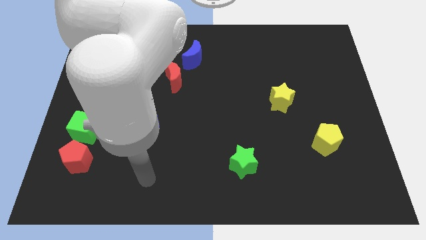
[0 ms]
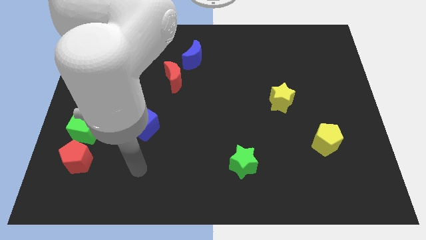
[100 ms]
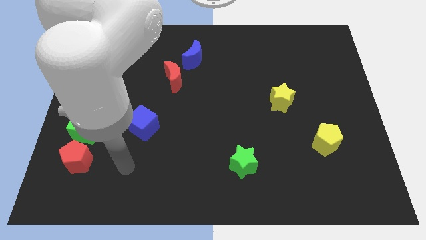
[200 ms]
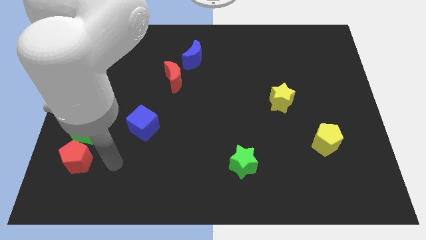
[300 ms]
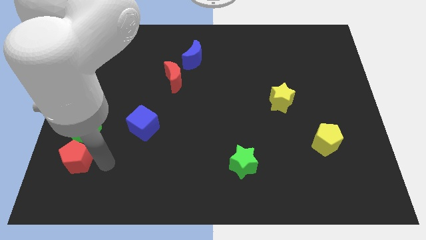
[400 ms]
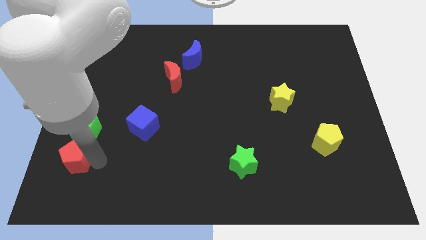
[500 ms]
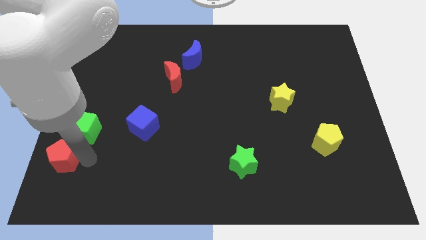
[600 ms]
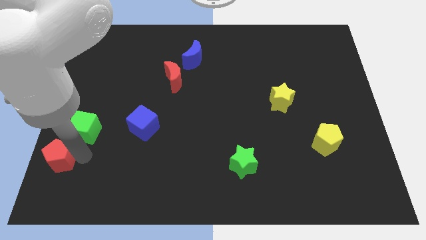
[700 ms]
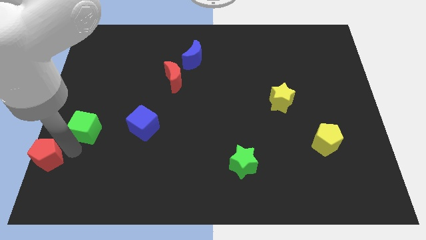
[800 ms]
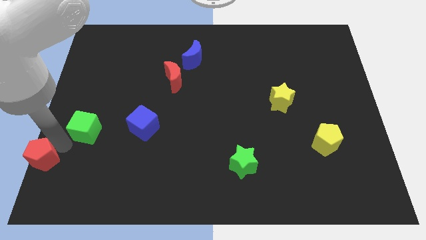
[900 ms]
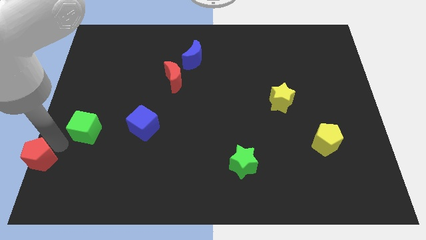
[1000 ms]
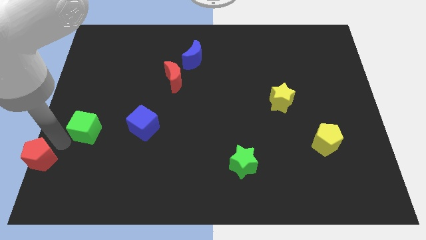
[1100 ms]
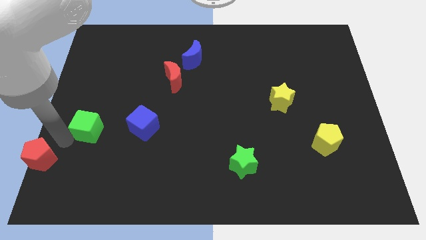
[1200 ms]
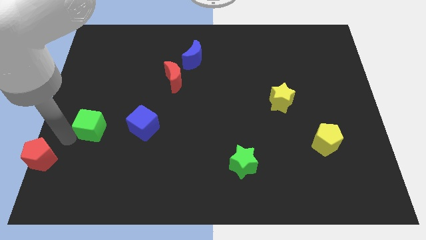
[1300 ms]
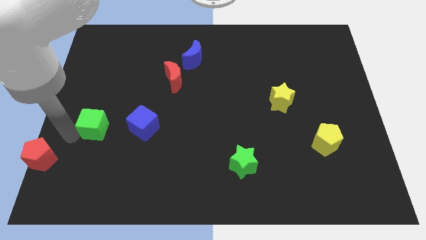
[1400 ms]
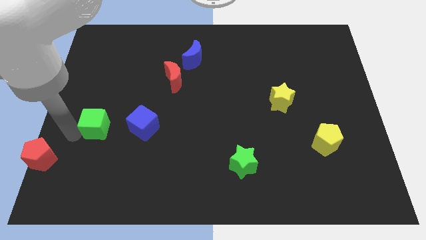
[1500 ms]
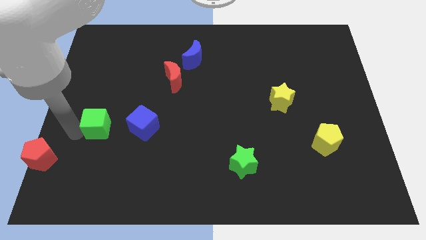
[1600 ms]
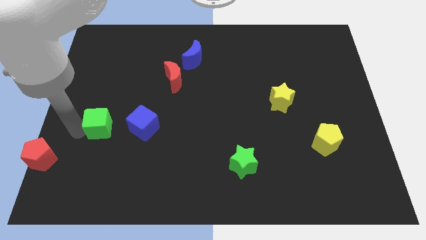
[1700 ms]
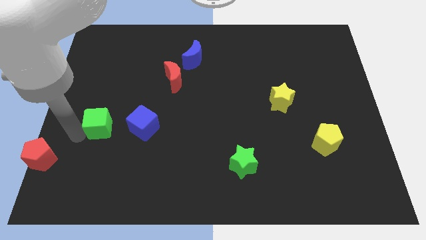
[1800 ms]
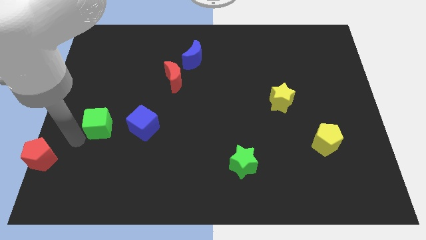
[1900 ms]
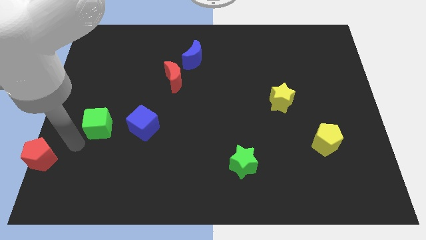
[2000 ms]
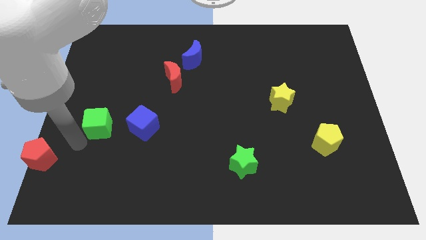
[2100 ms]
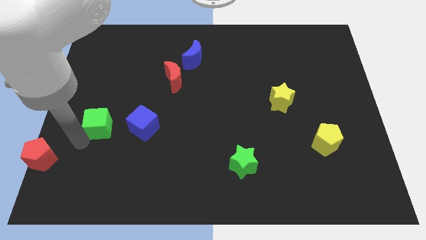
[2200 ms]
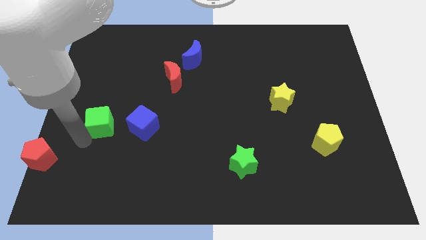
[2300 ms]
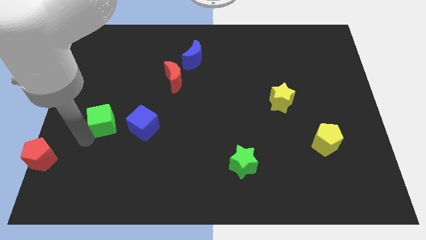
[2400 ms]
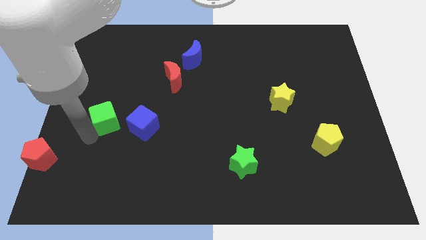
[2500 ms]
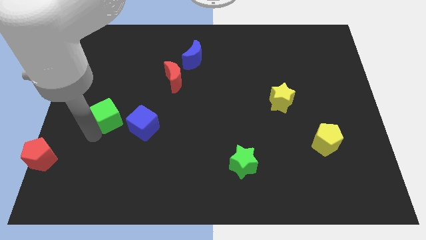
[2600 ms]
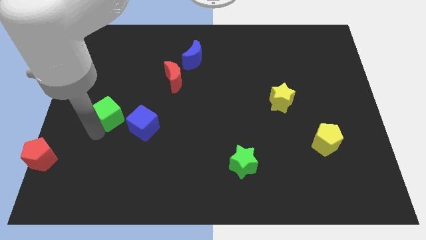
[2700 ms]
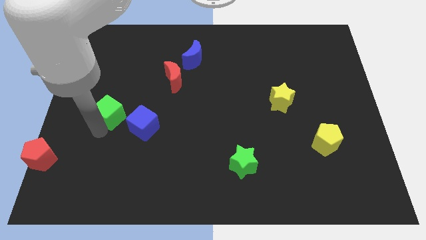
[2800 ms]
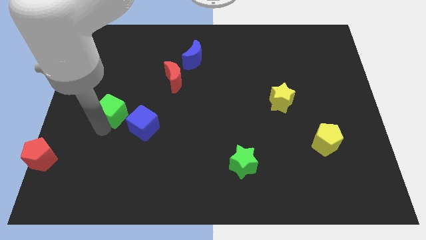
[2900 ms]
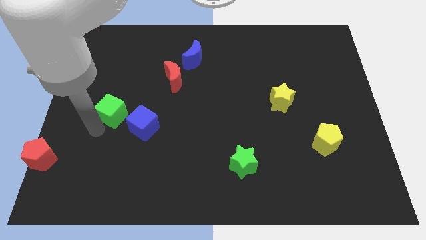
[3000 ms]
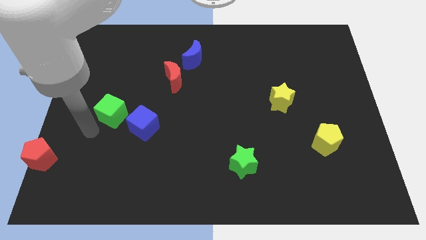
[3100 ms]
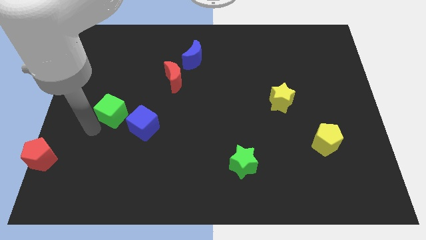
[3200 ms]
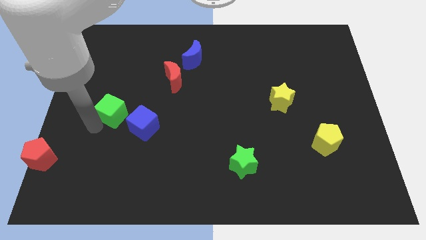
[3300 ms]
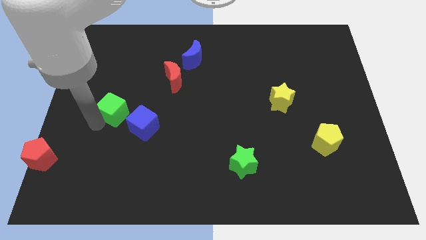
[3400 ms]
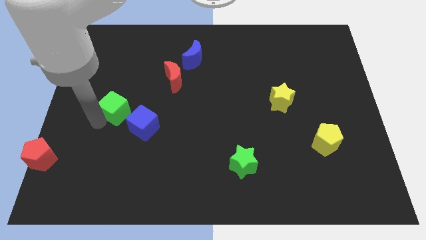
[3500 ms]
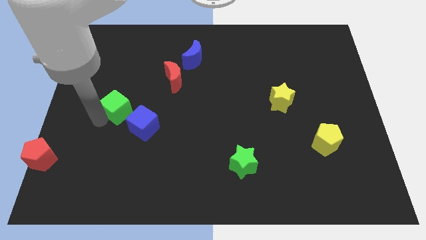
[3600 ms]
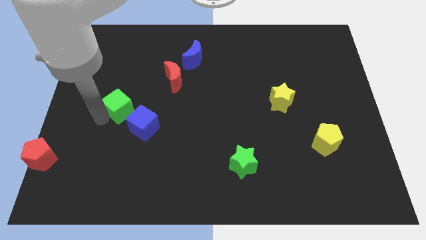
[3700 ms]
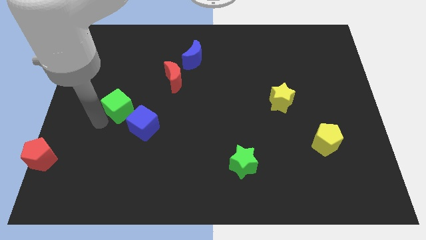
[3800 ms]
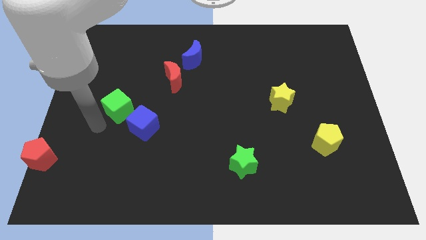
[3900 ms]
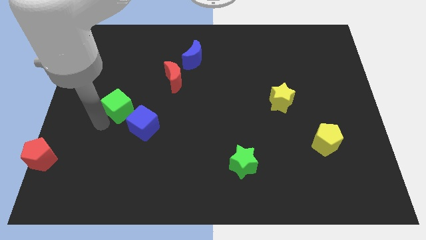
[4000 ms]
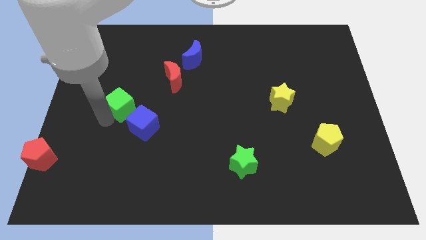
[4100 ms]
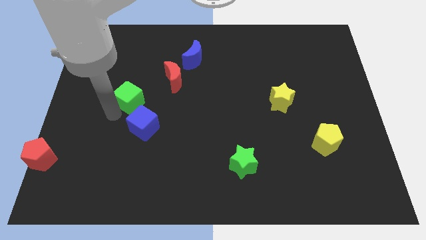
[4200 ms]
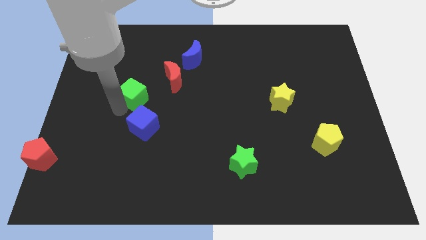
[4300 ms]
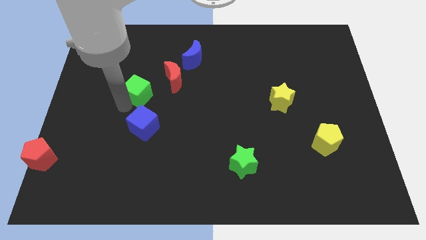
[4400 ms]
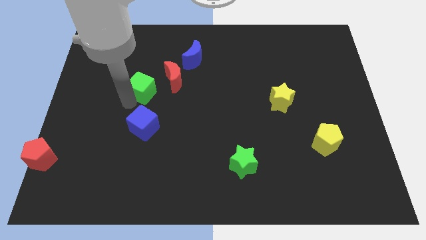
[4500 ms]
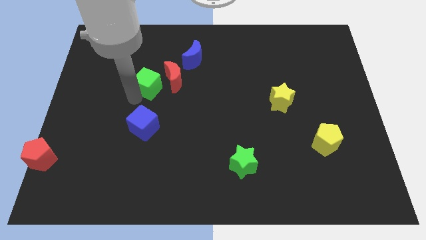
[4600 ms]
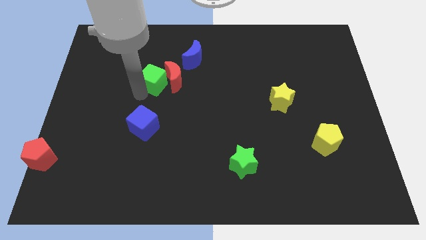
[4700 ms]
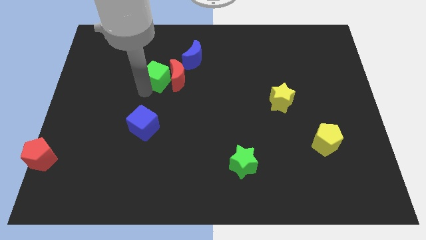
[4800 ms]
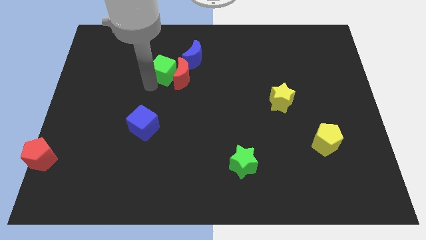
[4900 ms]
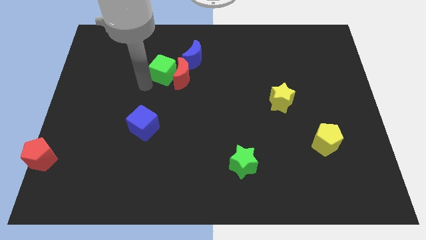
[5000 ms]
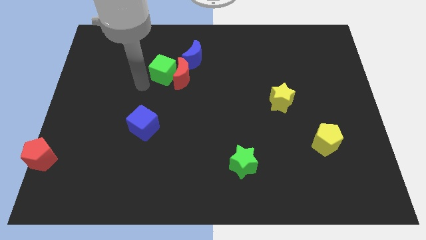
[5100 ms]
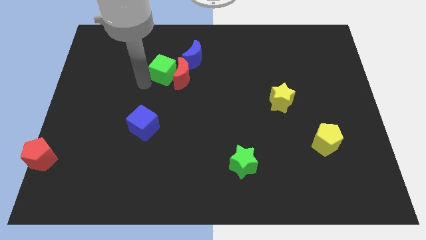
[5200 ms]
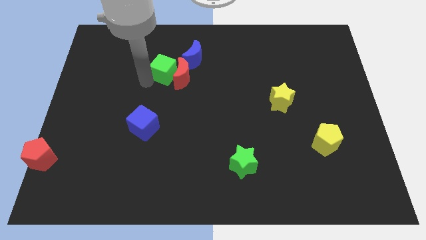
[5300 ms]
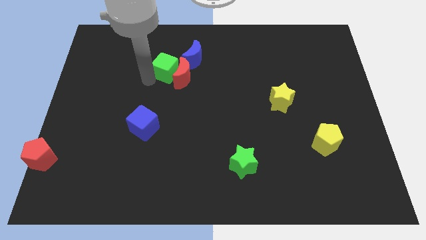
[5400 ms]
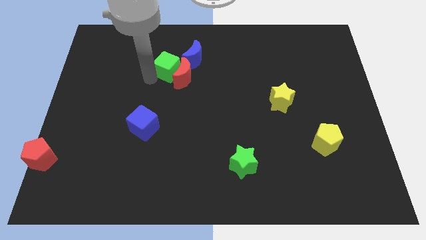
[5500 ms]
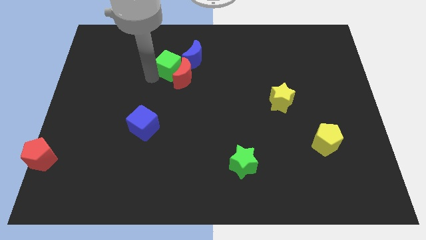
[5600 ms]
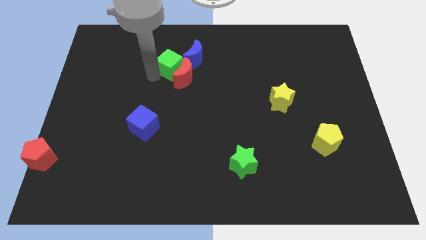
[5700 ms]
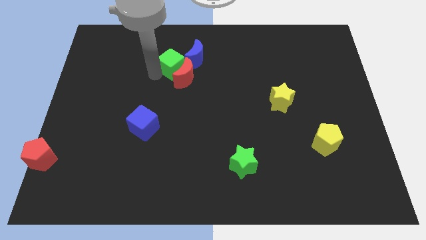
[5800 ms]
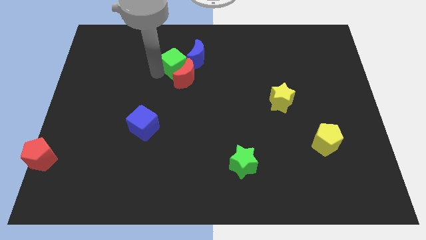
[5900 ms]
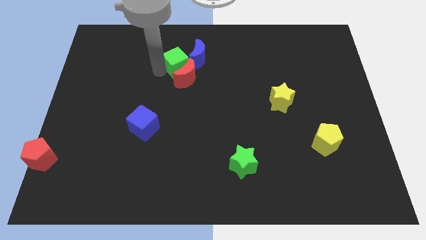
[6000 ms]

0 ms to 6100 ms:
push the green cube towards the blue moon

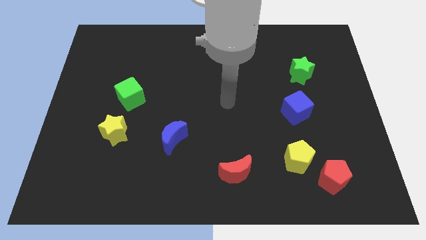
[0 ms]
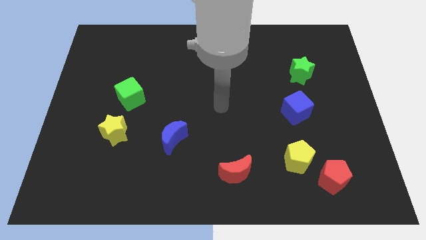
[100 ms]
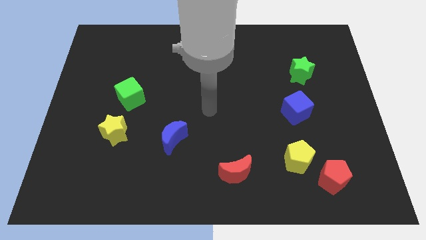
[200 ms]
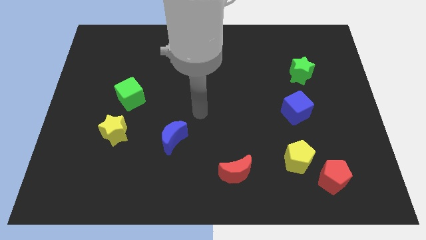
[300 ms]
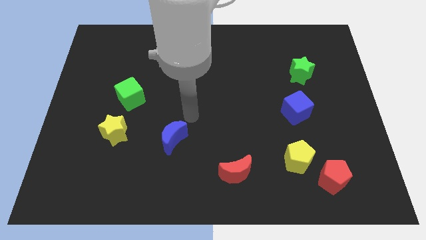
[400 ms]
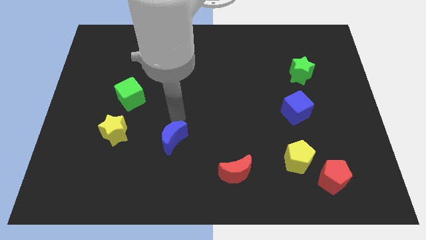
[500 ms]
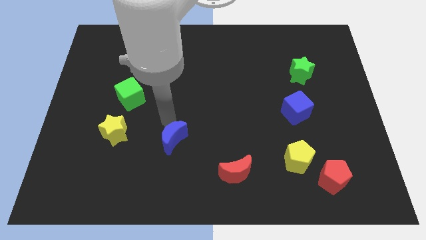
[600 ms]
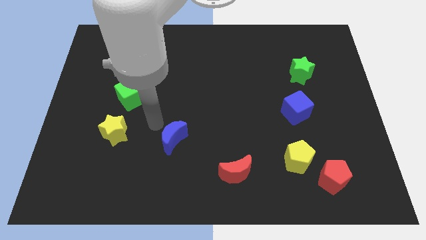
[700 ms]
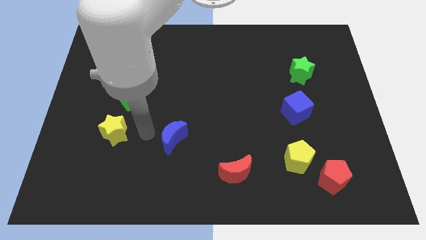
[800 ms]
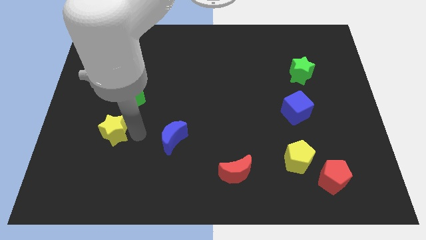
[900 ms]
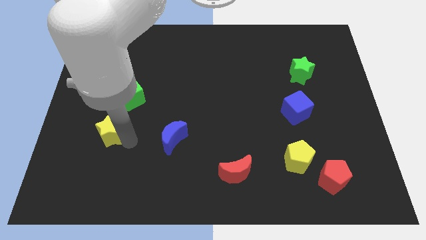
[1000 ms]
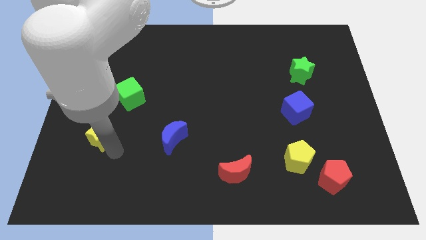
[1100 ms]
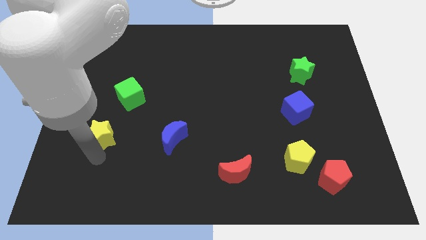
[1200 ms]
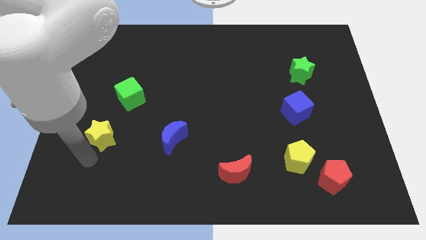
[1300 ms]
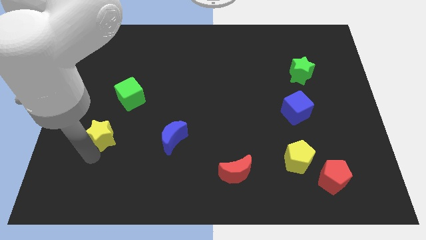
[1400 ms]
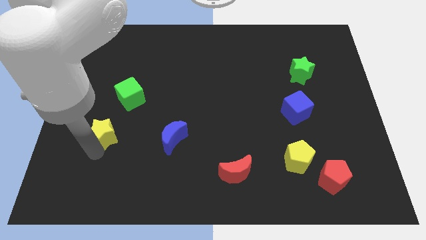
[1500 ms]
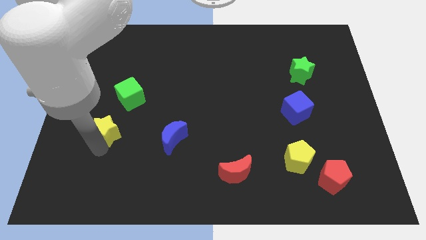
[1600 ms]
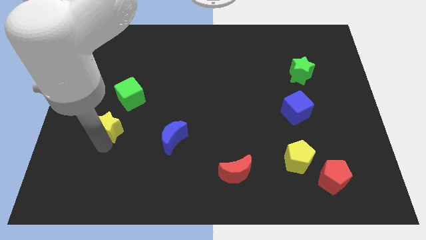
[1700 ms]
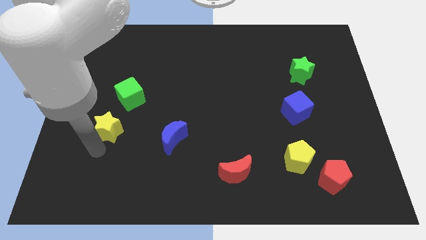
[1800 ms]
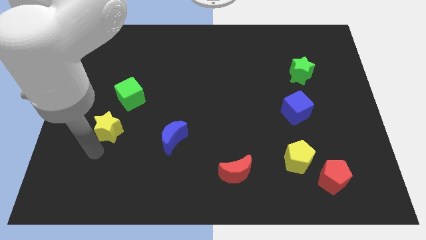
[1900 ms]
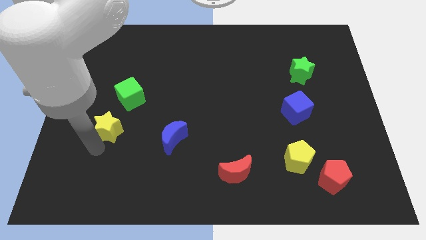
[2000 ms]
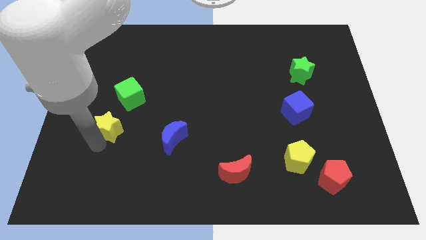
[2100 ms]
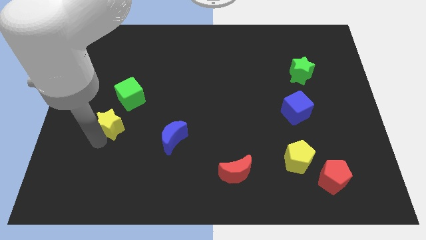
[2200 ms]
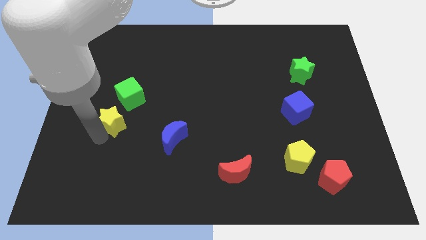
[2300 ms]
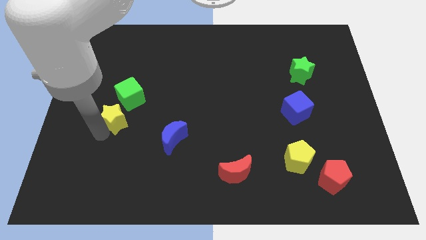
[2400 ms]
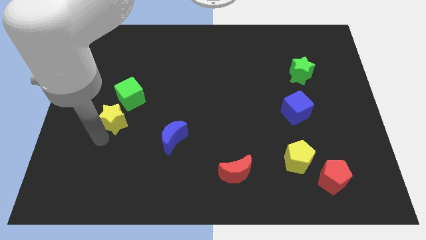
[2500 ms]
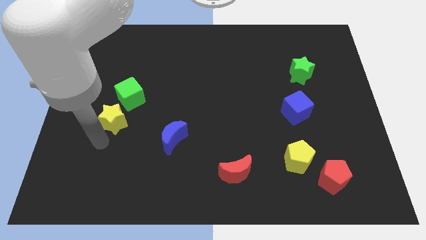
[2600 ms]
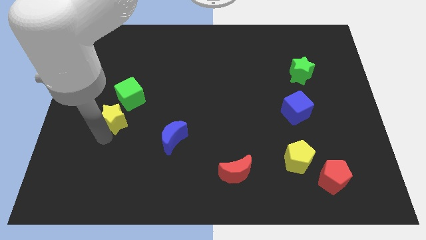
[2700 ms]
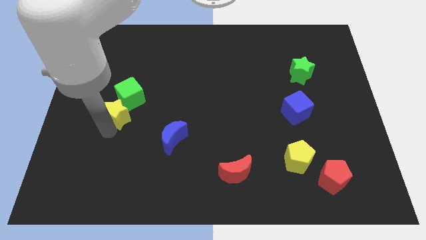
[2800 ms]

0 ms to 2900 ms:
push the yellow star next to the green cube
